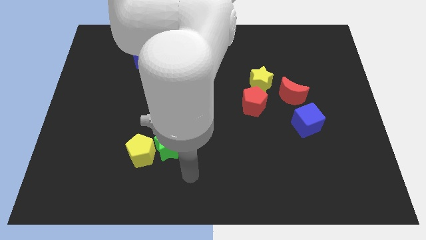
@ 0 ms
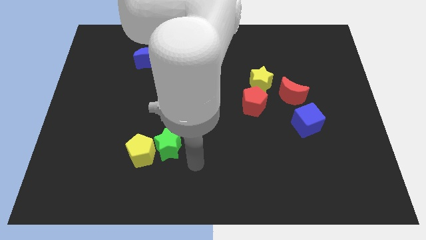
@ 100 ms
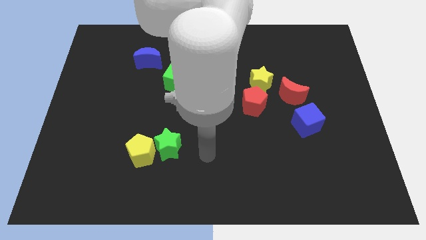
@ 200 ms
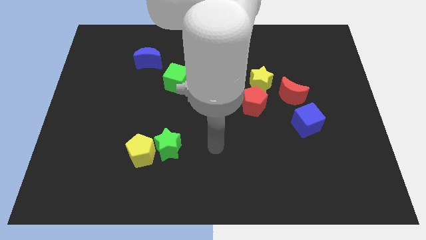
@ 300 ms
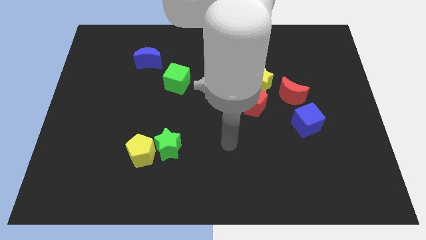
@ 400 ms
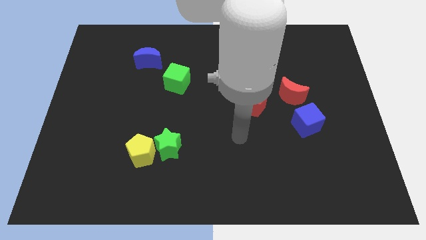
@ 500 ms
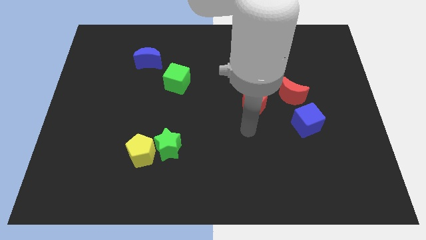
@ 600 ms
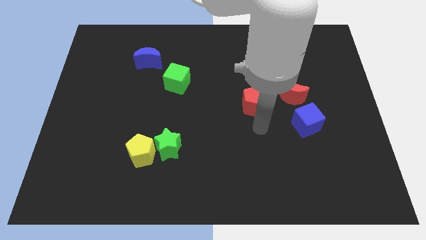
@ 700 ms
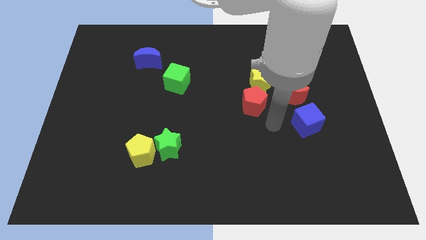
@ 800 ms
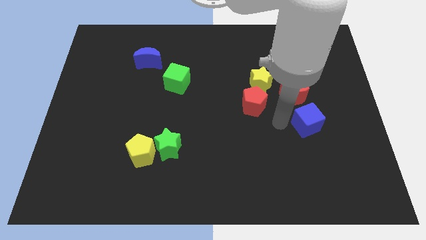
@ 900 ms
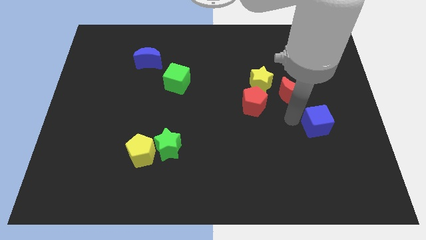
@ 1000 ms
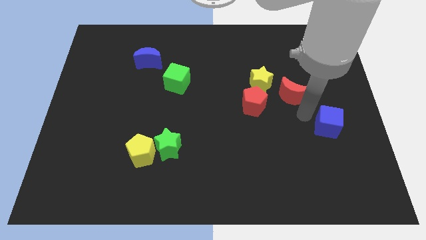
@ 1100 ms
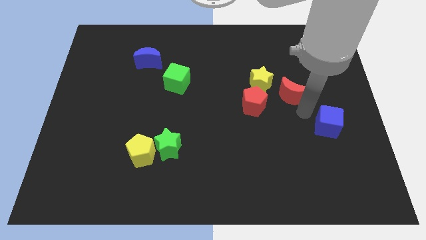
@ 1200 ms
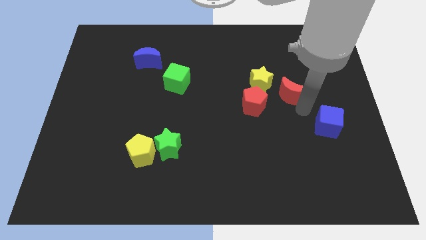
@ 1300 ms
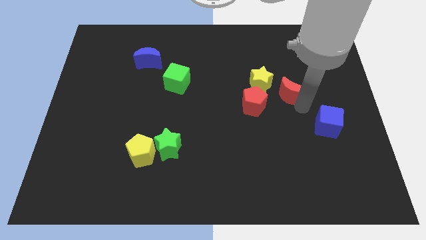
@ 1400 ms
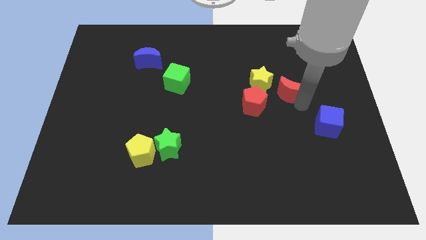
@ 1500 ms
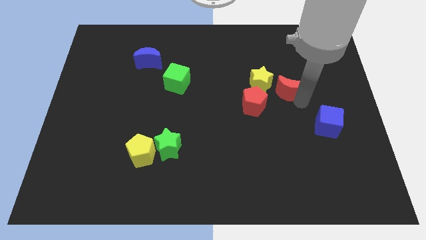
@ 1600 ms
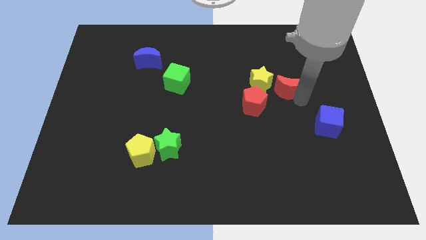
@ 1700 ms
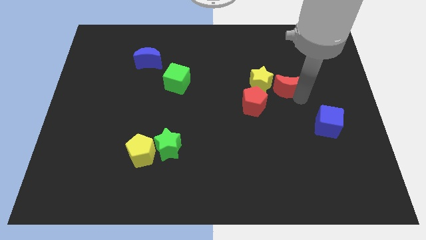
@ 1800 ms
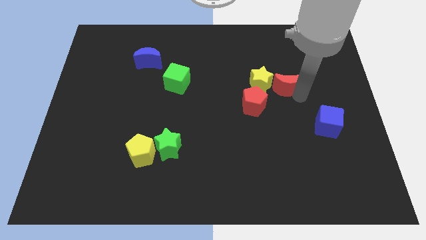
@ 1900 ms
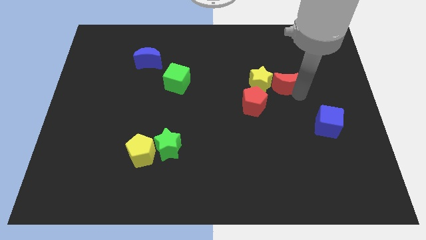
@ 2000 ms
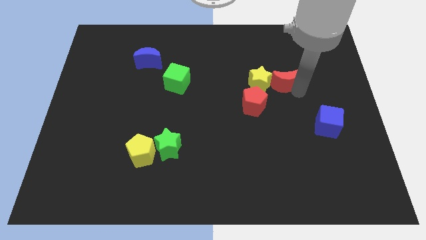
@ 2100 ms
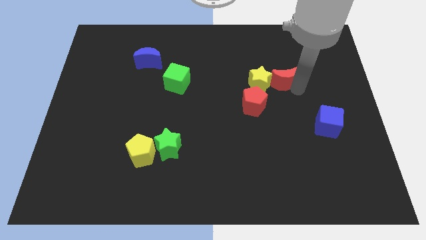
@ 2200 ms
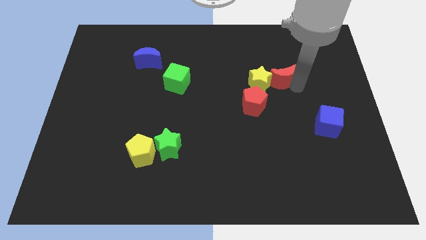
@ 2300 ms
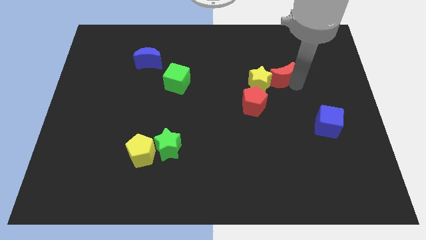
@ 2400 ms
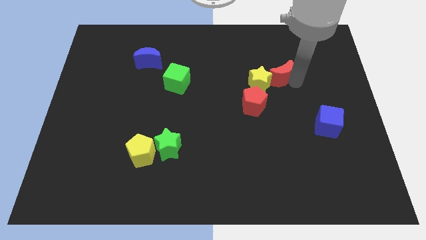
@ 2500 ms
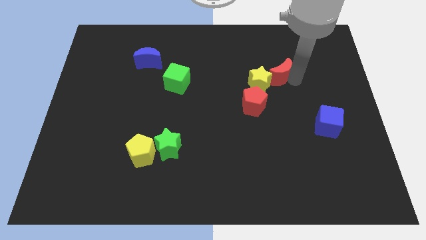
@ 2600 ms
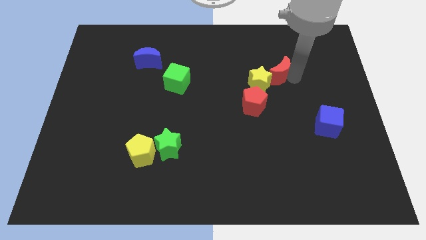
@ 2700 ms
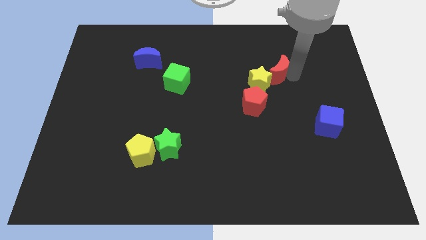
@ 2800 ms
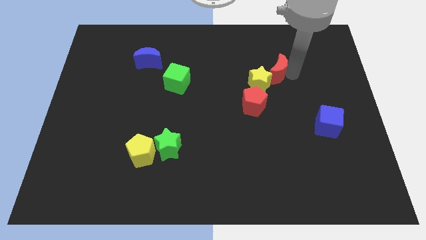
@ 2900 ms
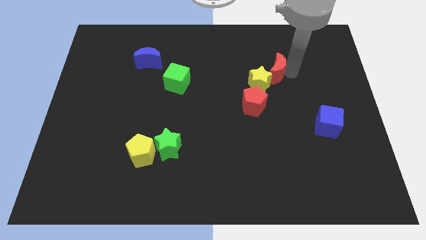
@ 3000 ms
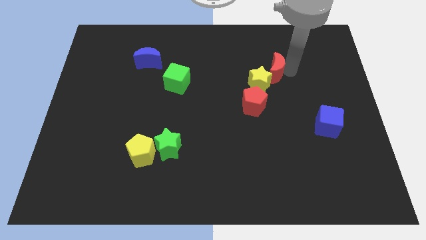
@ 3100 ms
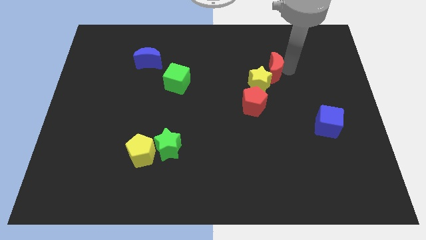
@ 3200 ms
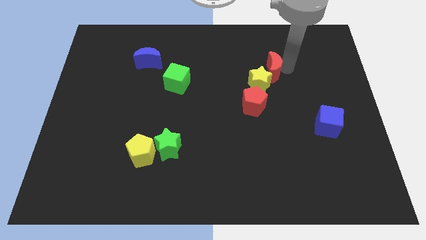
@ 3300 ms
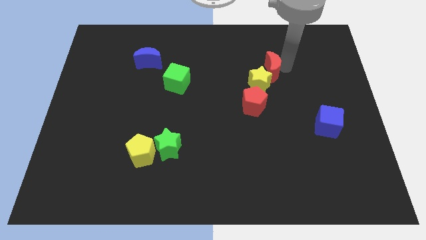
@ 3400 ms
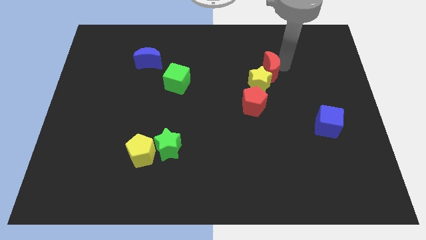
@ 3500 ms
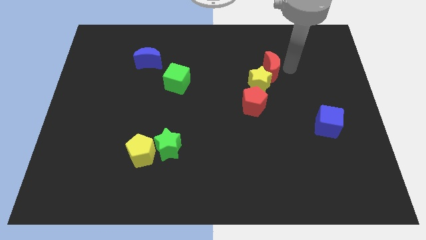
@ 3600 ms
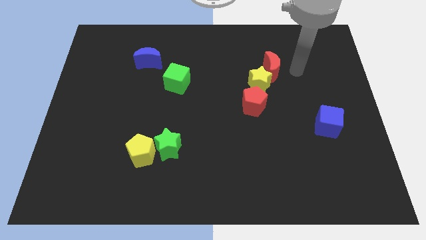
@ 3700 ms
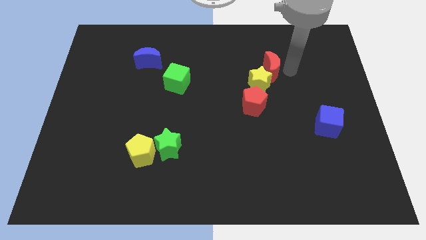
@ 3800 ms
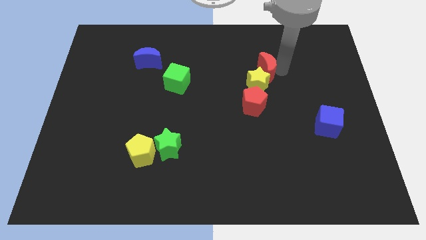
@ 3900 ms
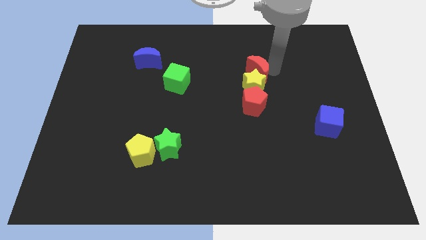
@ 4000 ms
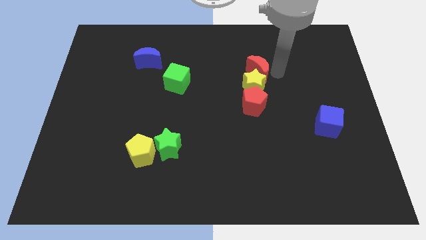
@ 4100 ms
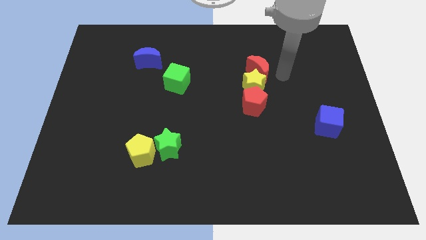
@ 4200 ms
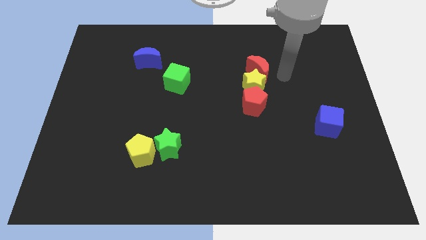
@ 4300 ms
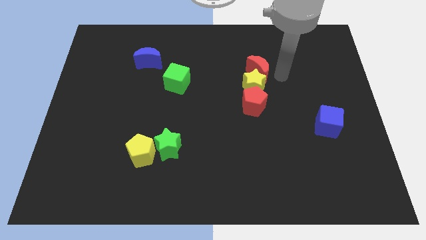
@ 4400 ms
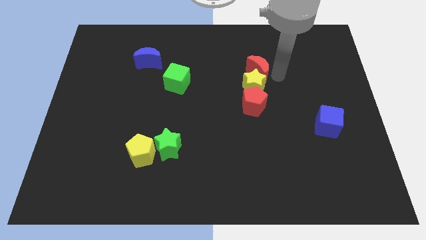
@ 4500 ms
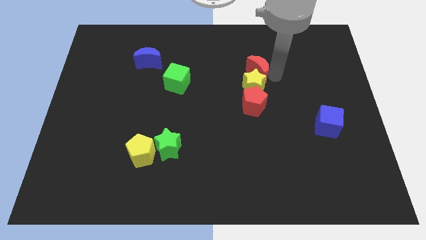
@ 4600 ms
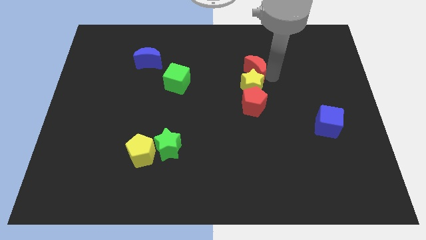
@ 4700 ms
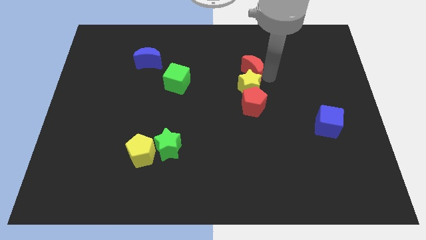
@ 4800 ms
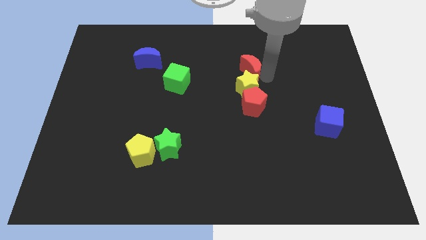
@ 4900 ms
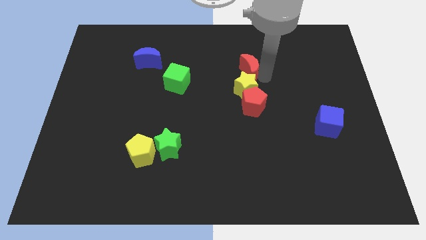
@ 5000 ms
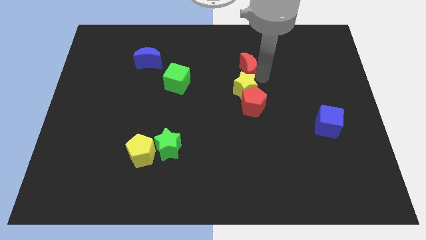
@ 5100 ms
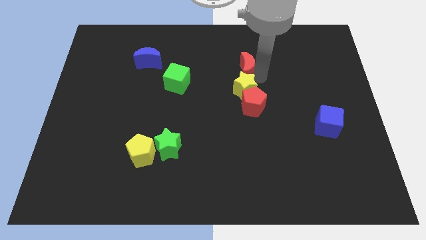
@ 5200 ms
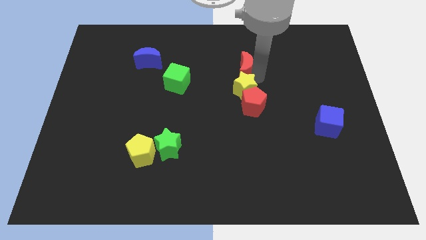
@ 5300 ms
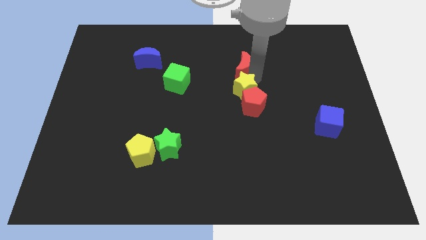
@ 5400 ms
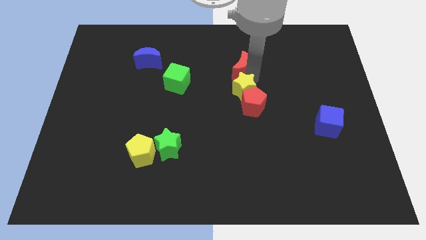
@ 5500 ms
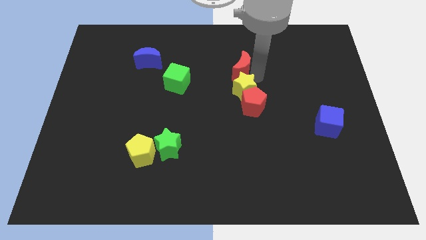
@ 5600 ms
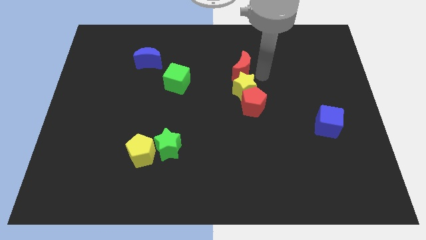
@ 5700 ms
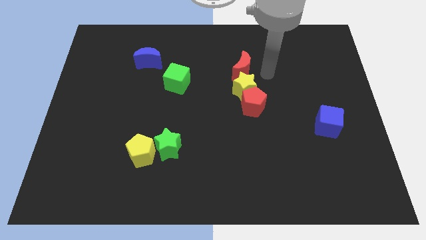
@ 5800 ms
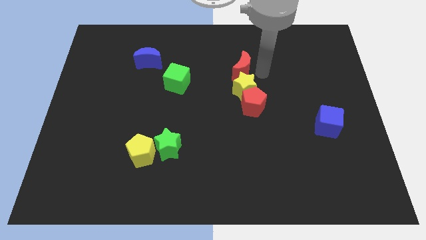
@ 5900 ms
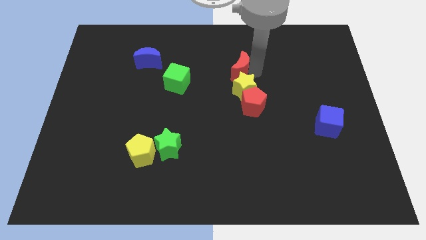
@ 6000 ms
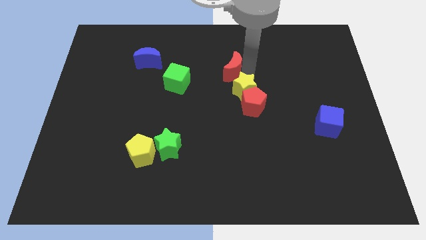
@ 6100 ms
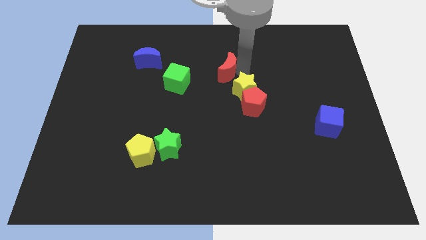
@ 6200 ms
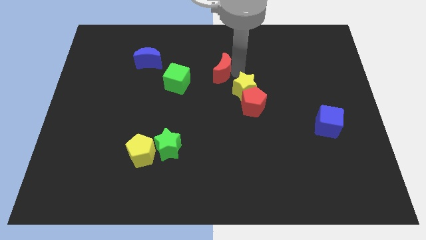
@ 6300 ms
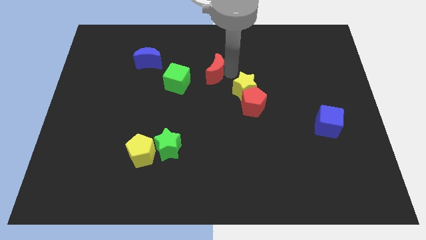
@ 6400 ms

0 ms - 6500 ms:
push the red moon to the top right of the green cube

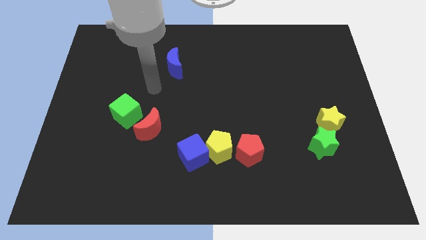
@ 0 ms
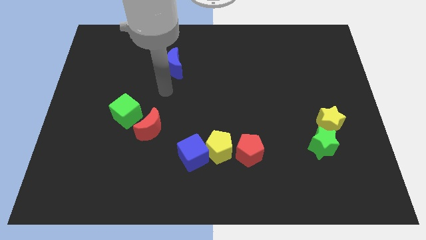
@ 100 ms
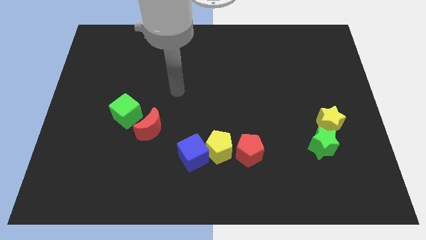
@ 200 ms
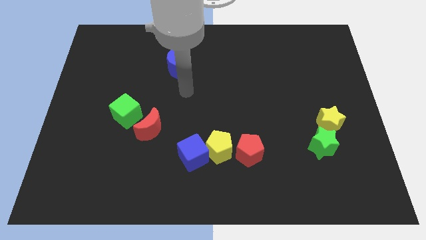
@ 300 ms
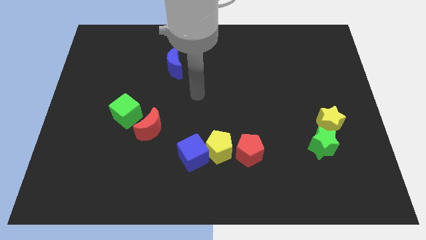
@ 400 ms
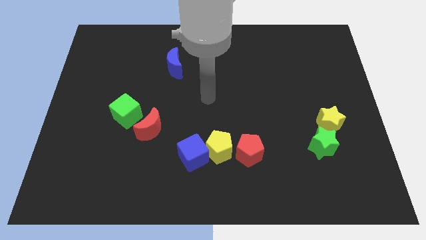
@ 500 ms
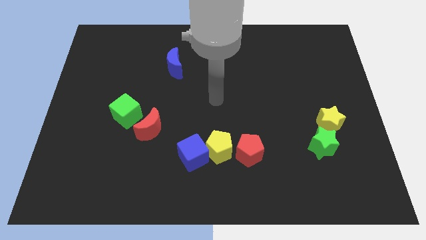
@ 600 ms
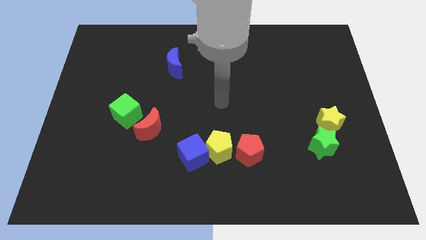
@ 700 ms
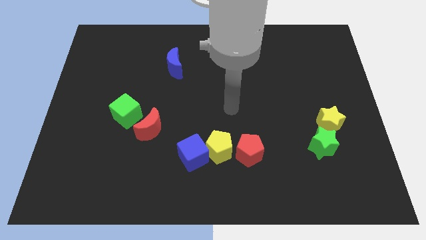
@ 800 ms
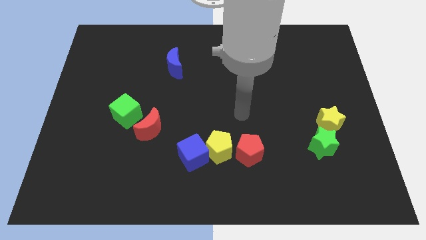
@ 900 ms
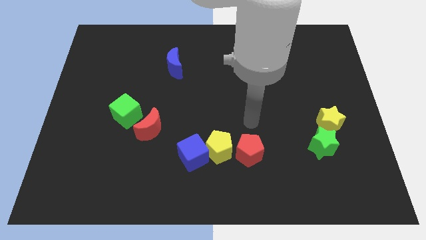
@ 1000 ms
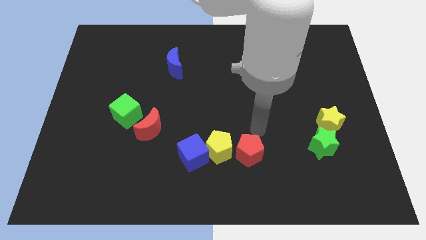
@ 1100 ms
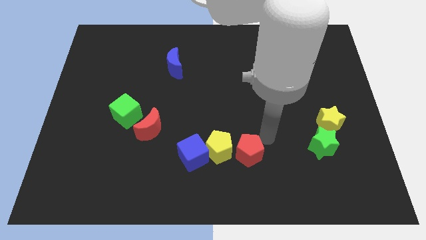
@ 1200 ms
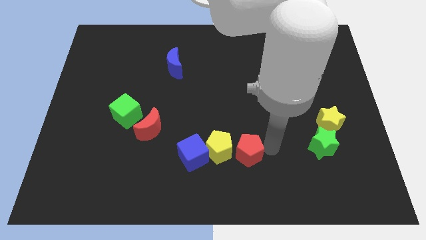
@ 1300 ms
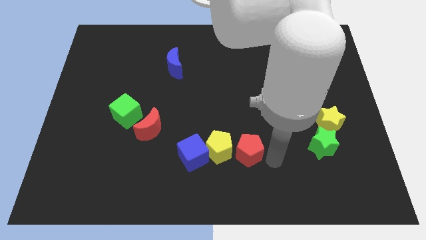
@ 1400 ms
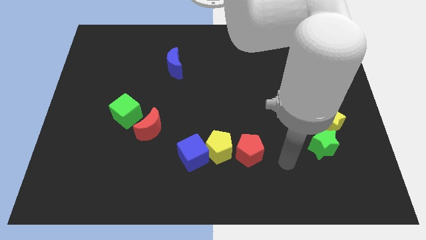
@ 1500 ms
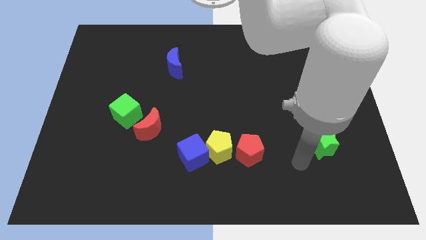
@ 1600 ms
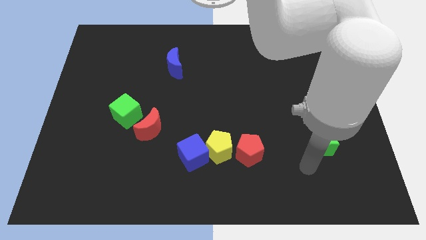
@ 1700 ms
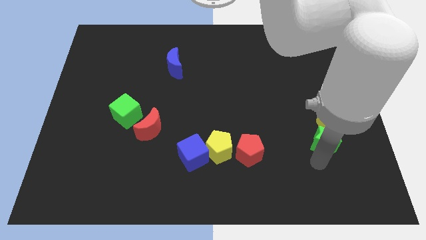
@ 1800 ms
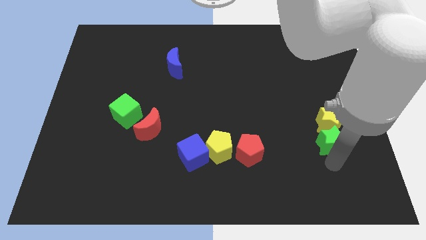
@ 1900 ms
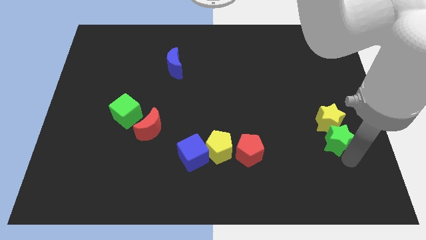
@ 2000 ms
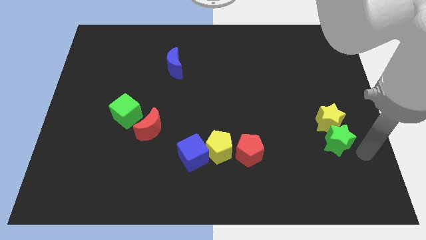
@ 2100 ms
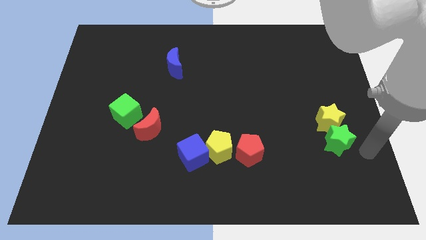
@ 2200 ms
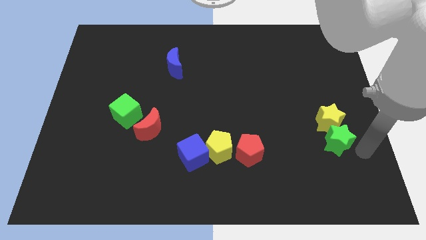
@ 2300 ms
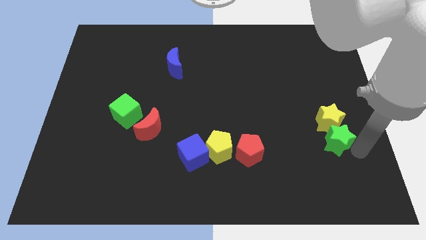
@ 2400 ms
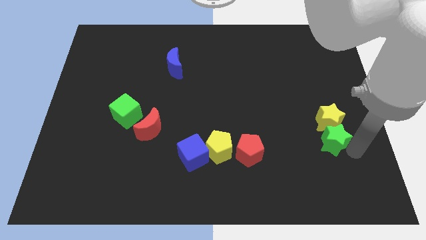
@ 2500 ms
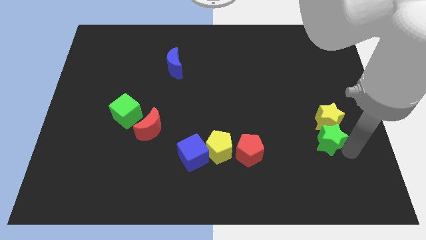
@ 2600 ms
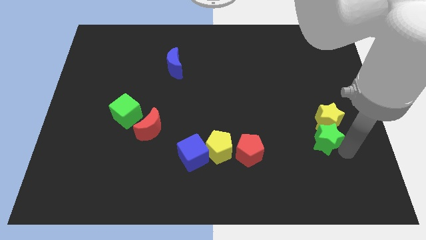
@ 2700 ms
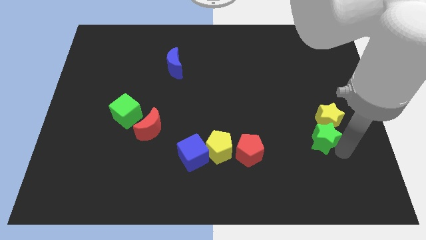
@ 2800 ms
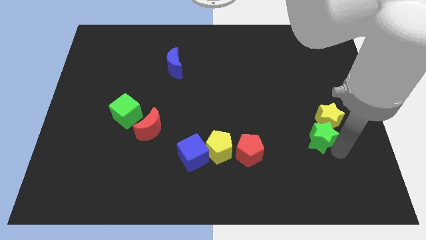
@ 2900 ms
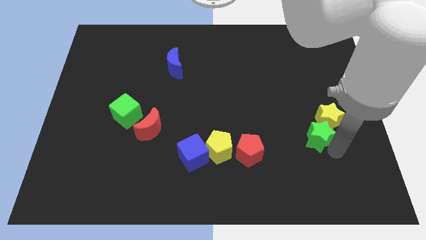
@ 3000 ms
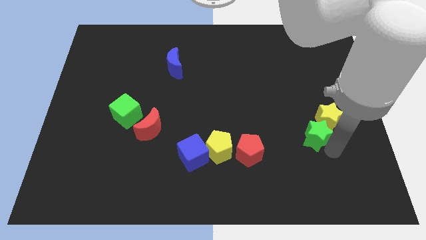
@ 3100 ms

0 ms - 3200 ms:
push the green star to the left of the yellow star
